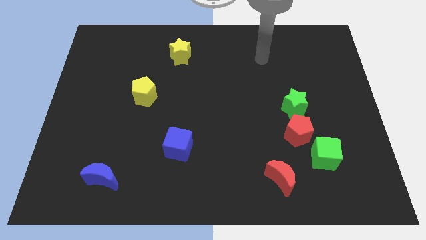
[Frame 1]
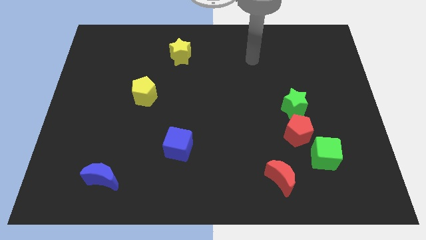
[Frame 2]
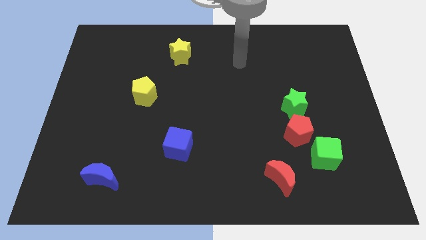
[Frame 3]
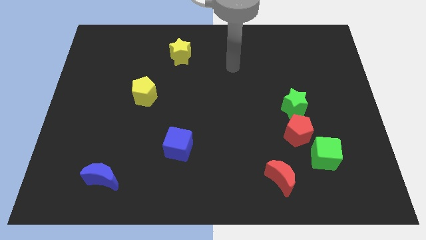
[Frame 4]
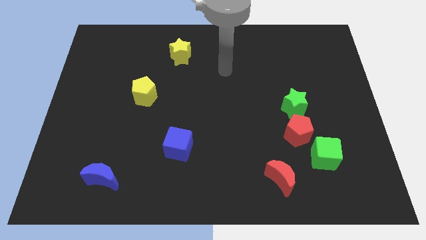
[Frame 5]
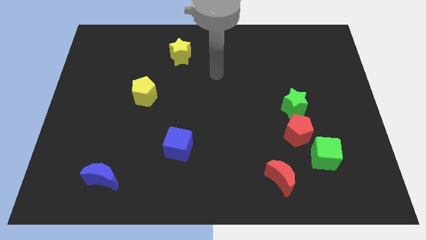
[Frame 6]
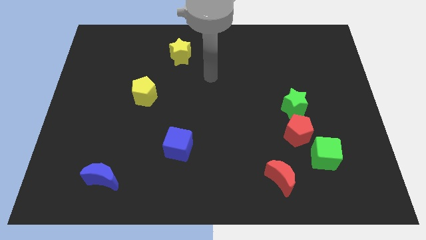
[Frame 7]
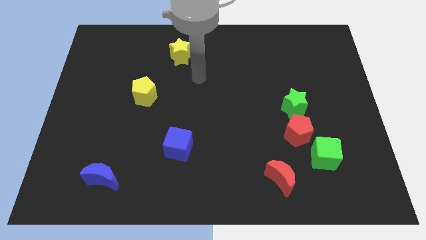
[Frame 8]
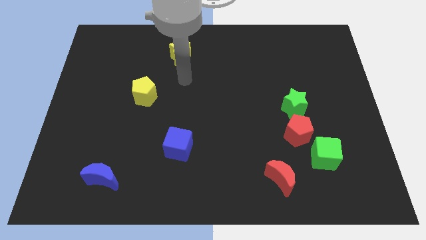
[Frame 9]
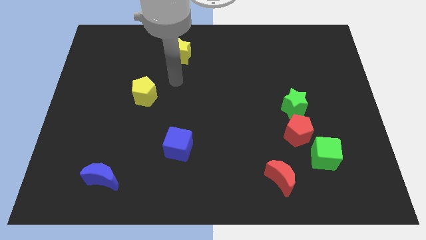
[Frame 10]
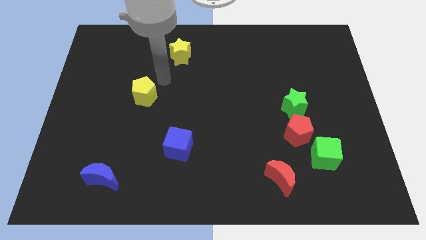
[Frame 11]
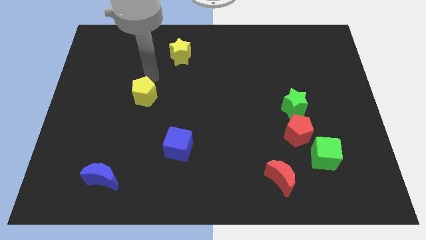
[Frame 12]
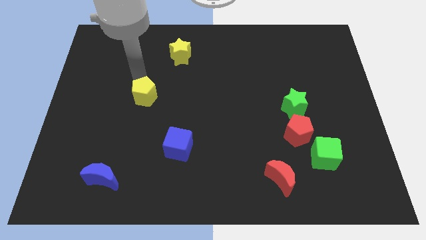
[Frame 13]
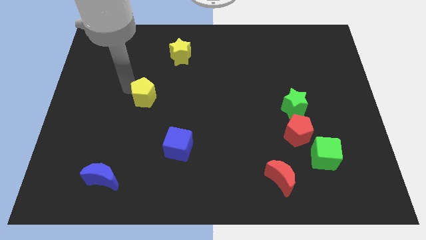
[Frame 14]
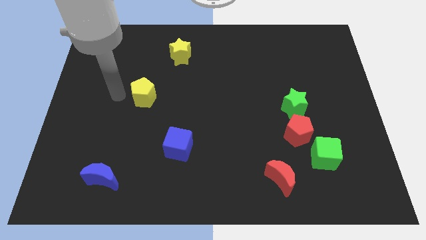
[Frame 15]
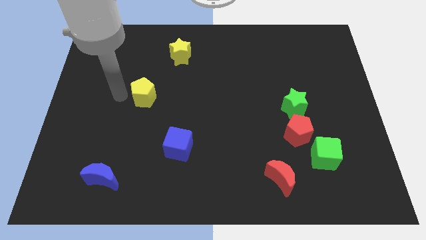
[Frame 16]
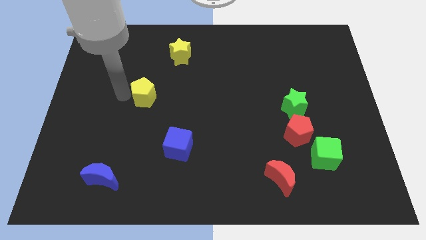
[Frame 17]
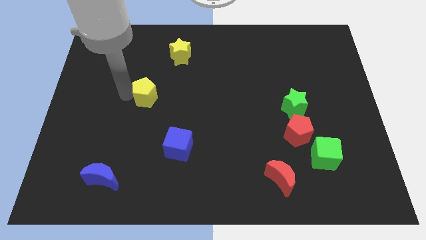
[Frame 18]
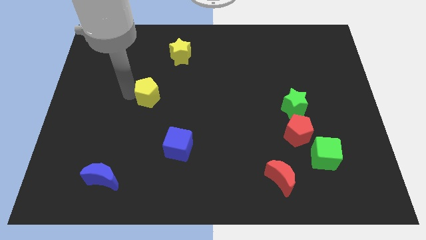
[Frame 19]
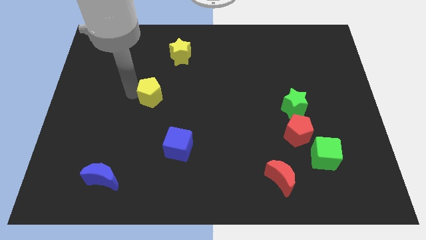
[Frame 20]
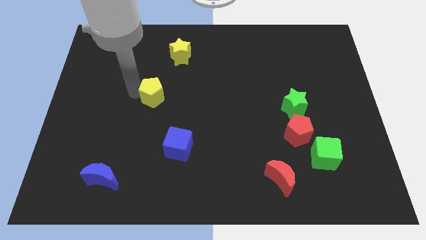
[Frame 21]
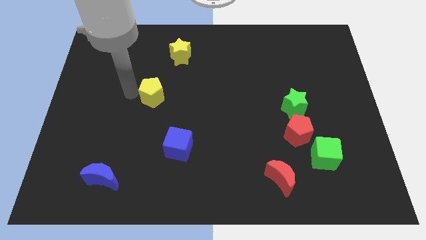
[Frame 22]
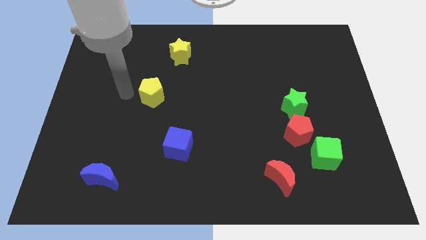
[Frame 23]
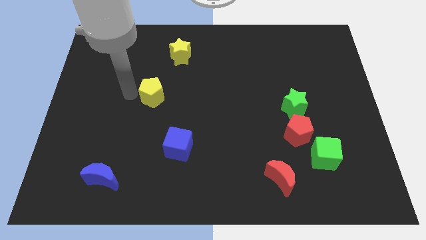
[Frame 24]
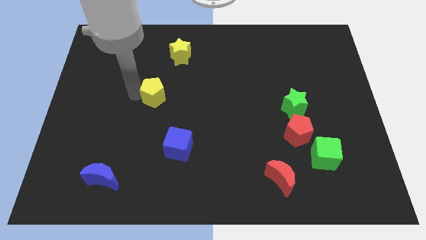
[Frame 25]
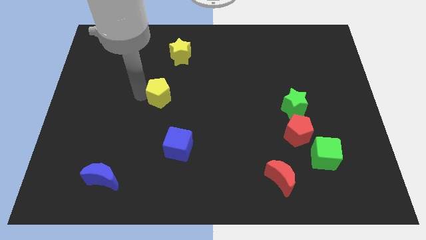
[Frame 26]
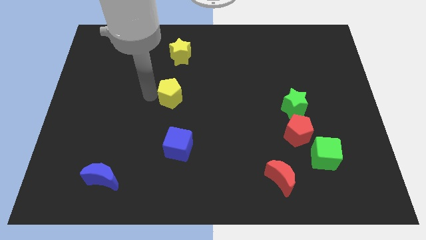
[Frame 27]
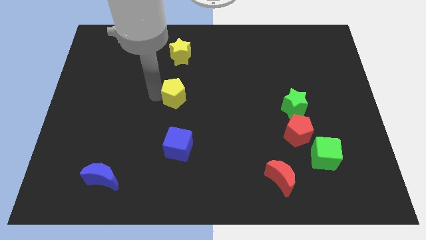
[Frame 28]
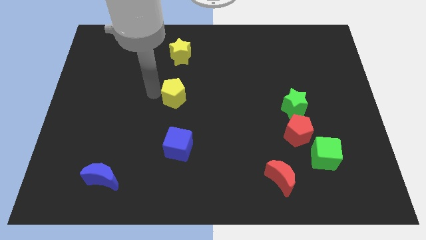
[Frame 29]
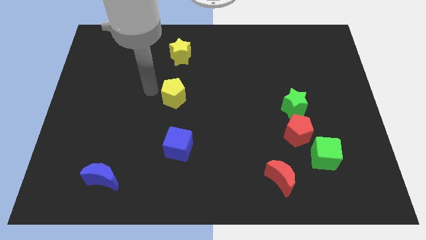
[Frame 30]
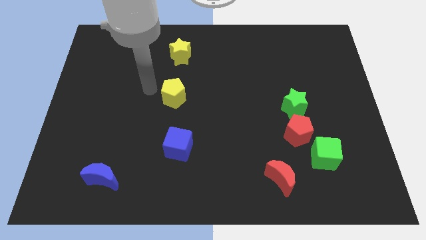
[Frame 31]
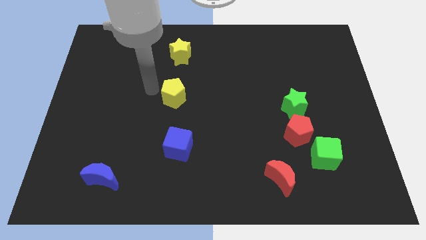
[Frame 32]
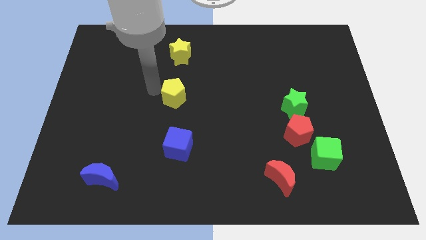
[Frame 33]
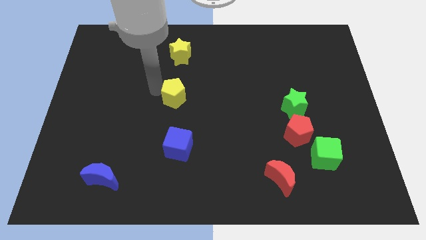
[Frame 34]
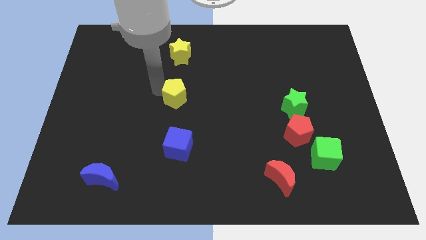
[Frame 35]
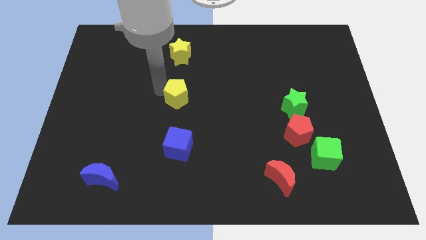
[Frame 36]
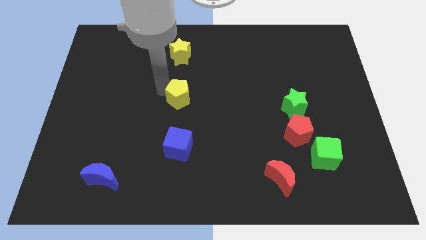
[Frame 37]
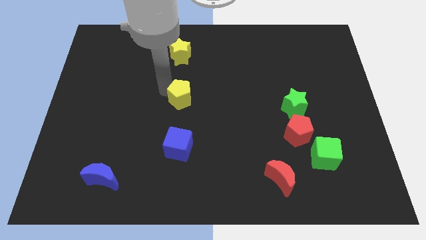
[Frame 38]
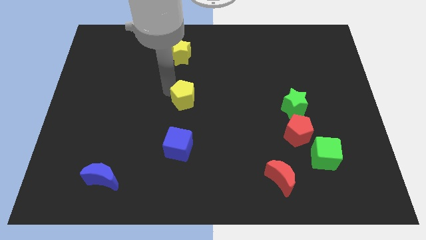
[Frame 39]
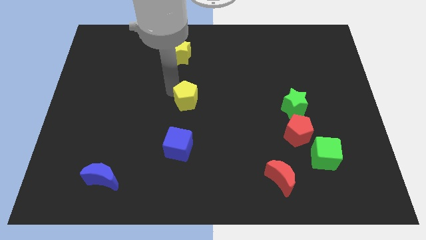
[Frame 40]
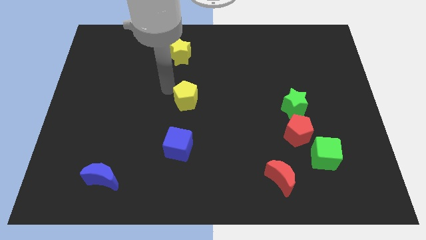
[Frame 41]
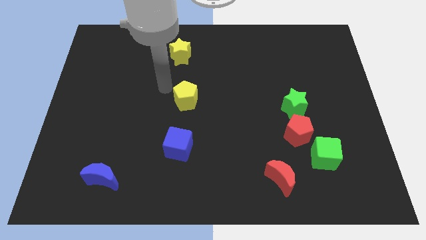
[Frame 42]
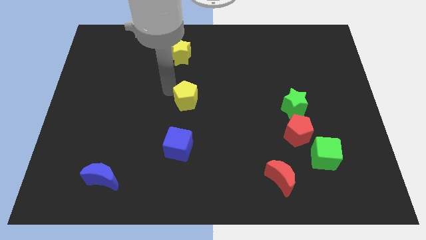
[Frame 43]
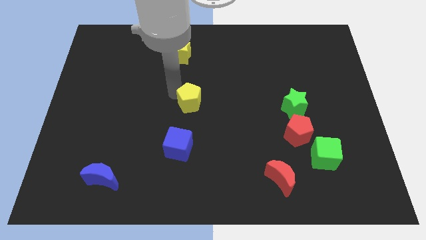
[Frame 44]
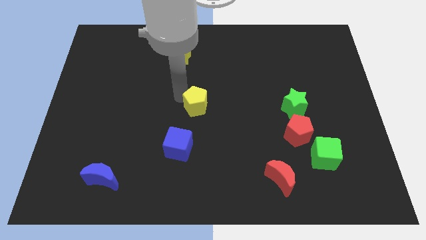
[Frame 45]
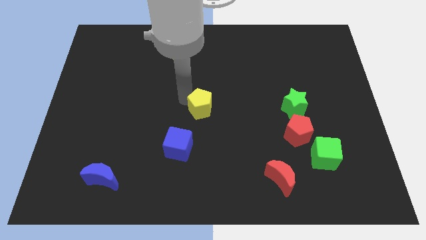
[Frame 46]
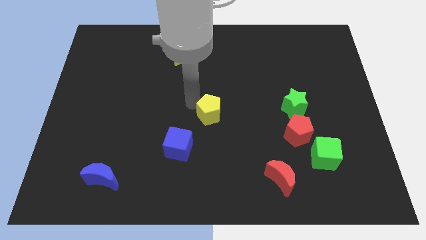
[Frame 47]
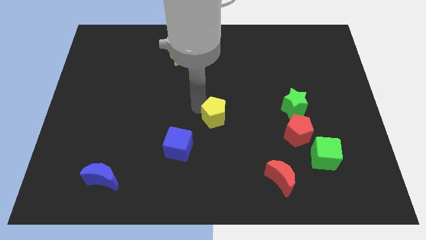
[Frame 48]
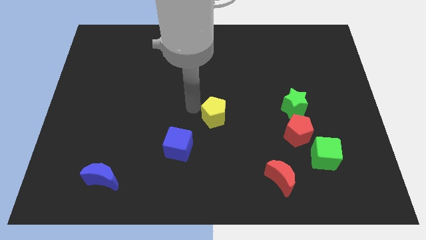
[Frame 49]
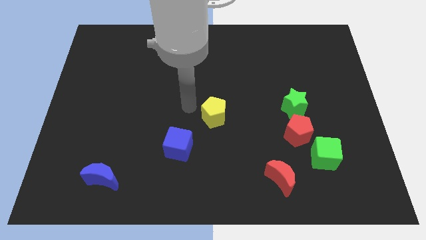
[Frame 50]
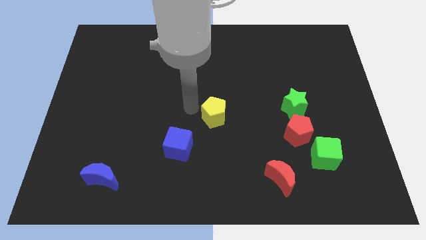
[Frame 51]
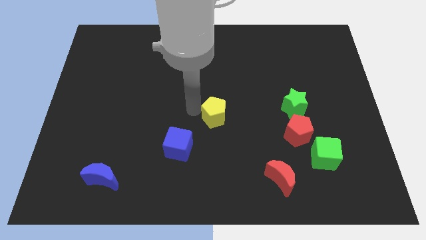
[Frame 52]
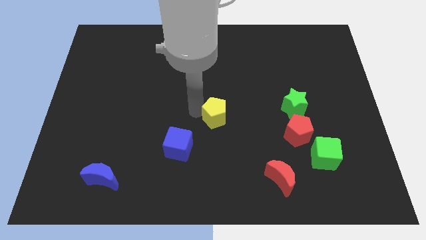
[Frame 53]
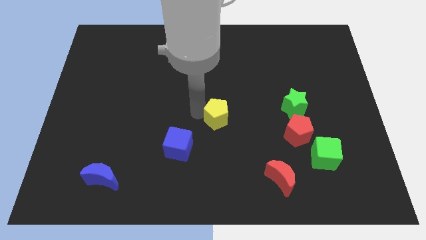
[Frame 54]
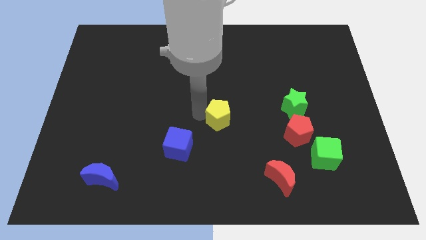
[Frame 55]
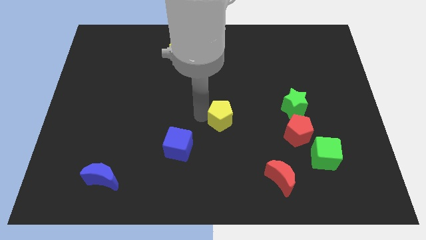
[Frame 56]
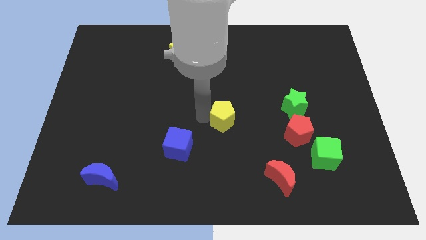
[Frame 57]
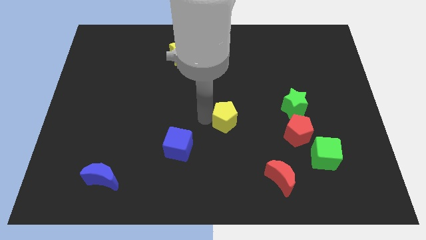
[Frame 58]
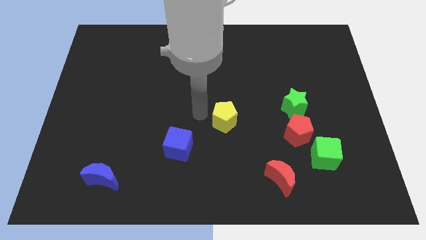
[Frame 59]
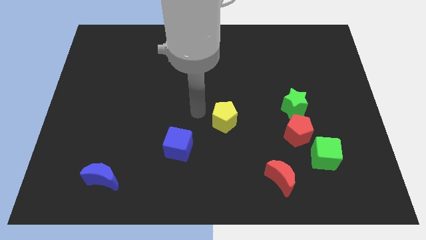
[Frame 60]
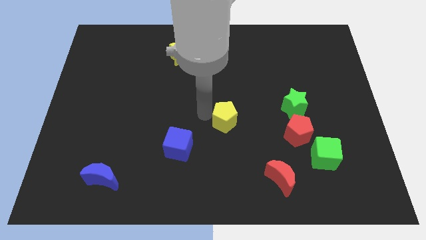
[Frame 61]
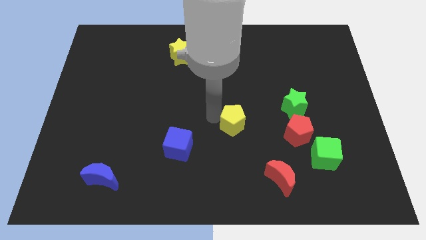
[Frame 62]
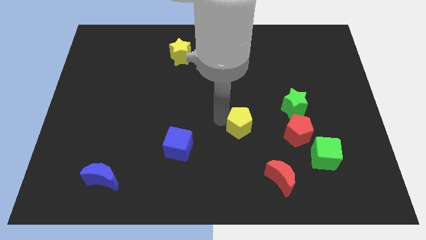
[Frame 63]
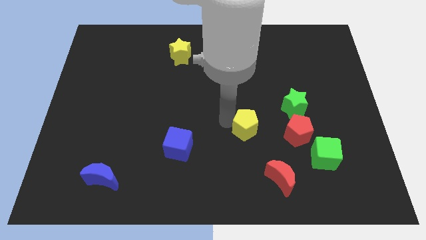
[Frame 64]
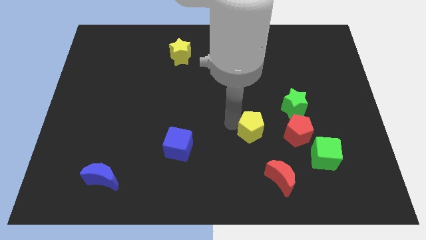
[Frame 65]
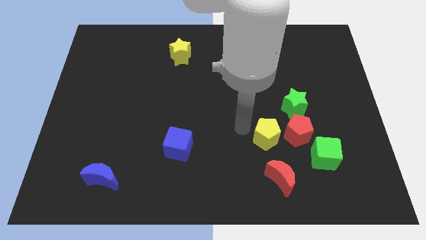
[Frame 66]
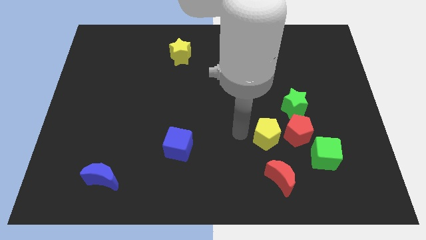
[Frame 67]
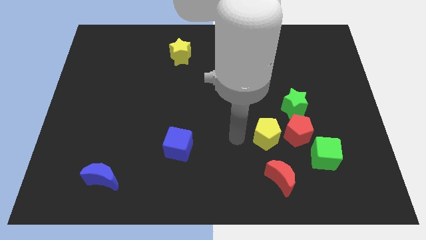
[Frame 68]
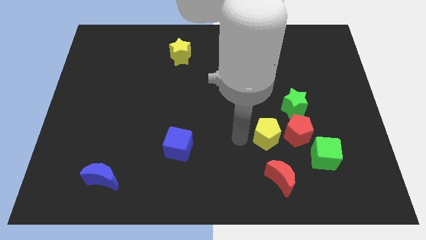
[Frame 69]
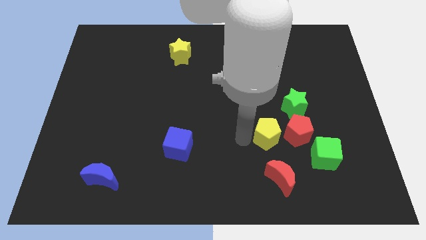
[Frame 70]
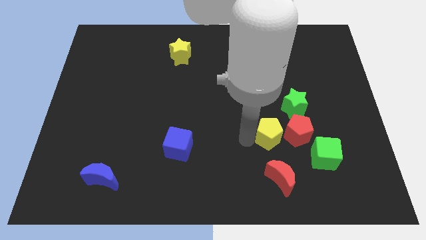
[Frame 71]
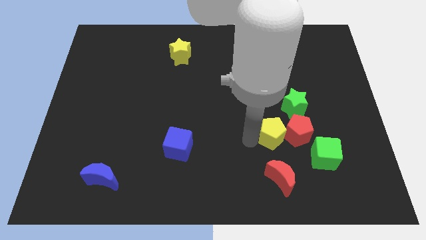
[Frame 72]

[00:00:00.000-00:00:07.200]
put the yellow pentagon to the red pentagon
